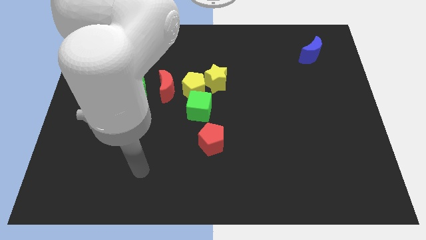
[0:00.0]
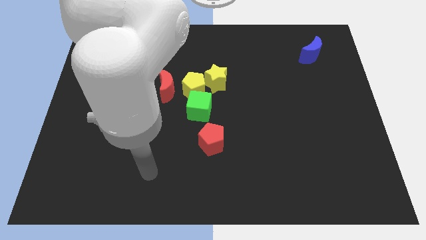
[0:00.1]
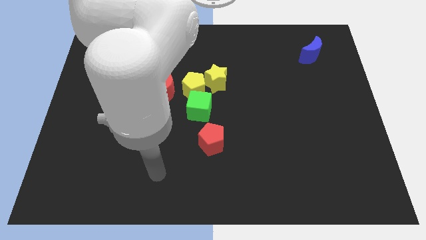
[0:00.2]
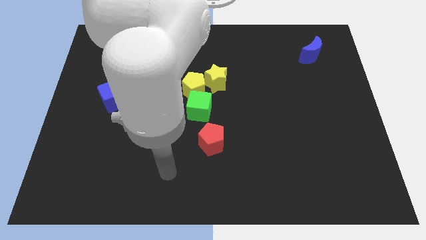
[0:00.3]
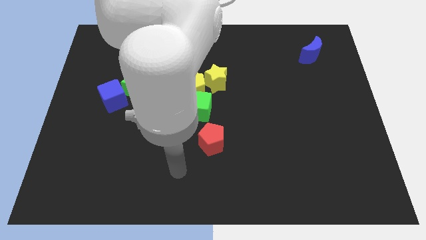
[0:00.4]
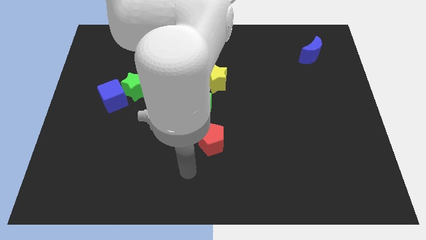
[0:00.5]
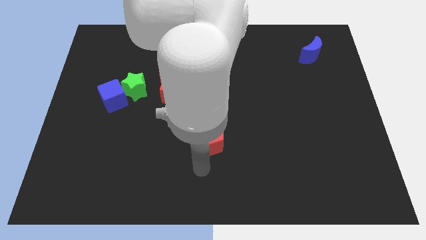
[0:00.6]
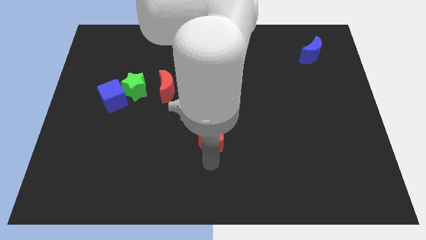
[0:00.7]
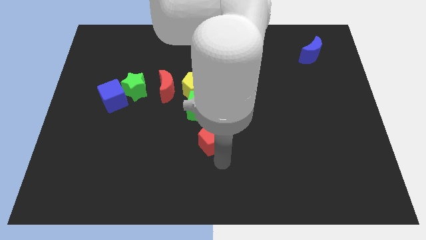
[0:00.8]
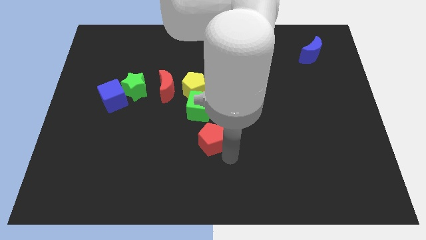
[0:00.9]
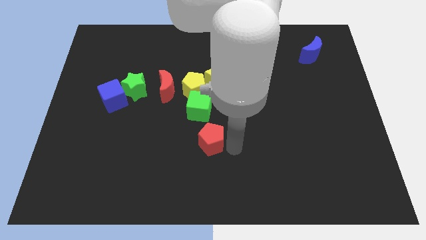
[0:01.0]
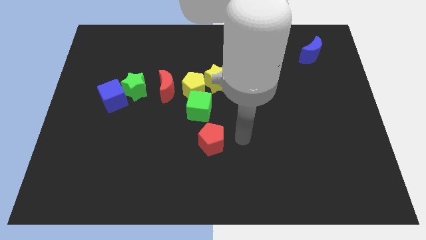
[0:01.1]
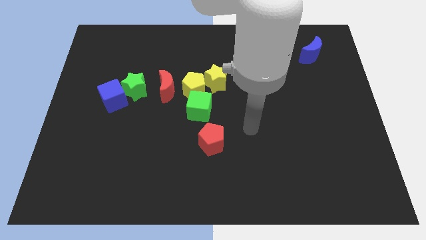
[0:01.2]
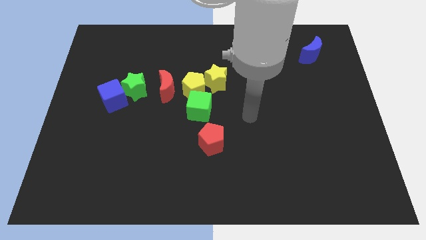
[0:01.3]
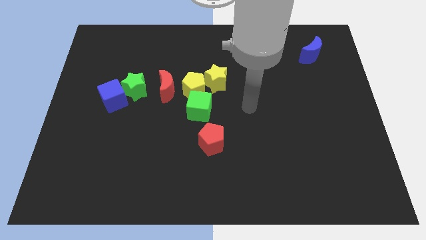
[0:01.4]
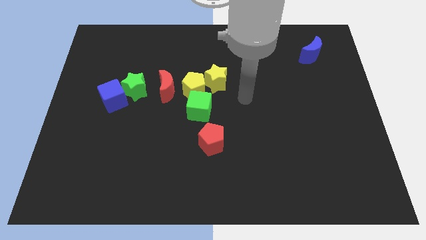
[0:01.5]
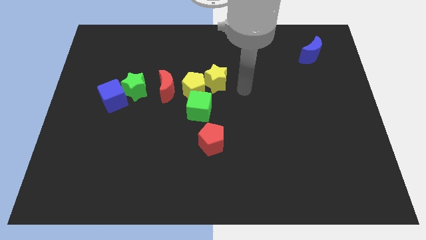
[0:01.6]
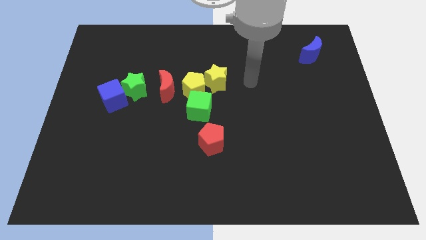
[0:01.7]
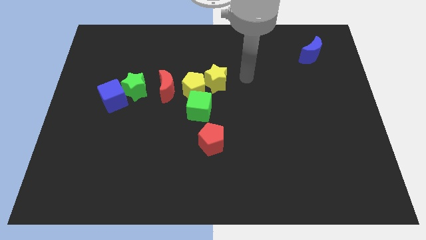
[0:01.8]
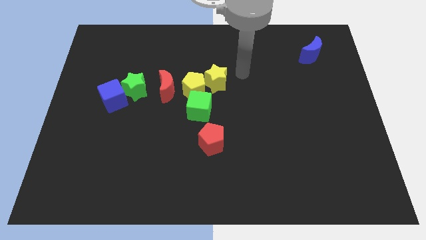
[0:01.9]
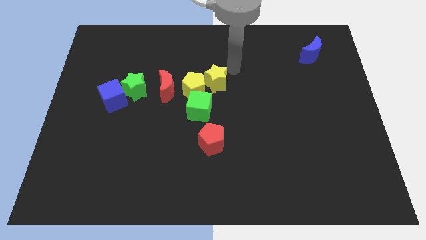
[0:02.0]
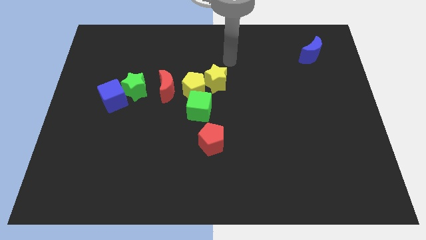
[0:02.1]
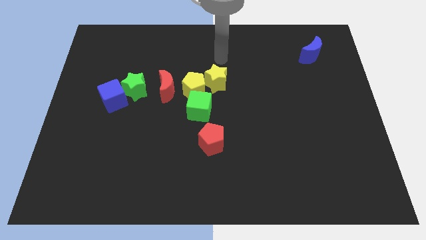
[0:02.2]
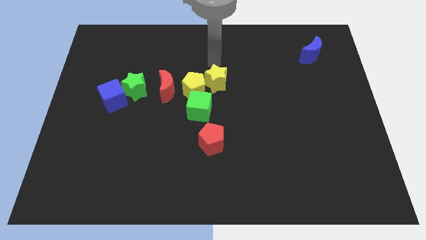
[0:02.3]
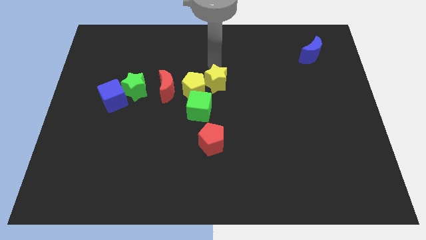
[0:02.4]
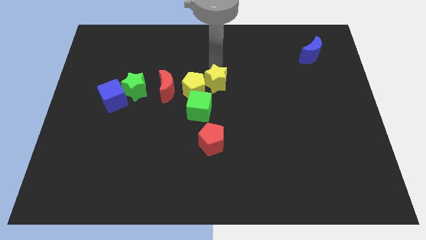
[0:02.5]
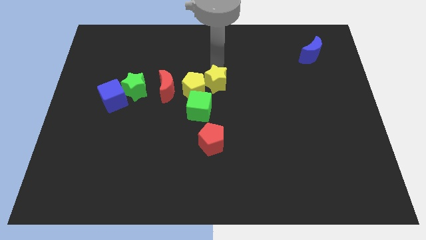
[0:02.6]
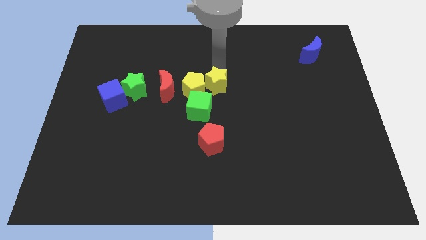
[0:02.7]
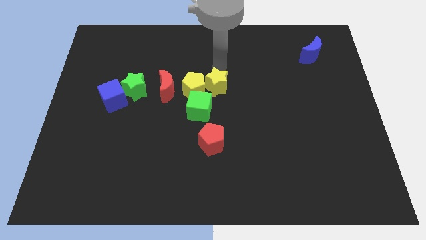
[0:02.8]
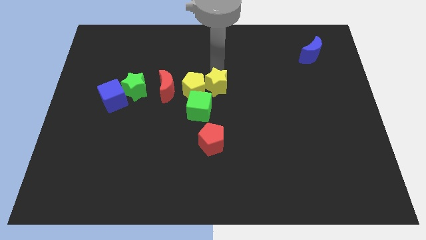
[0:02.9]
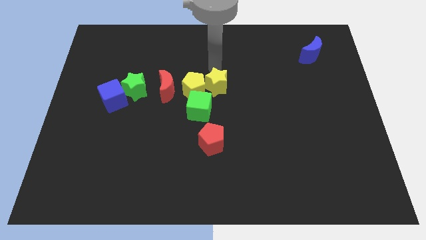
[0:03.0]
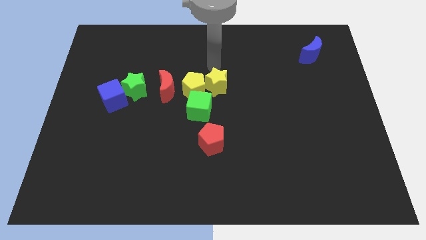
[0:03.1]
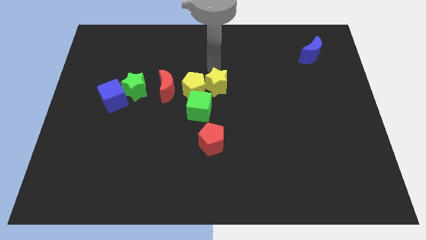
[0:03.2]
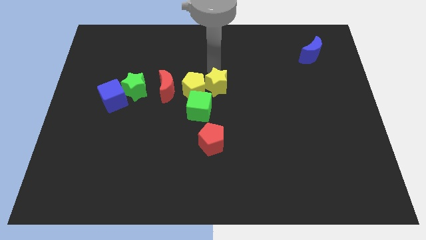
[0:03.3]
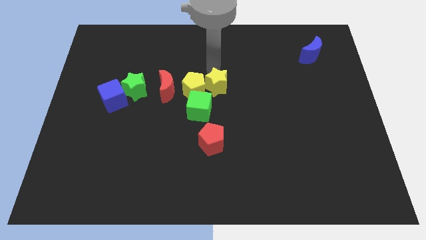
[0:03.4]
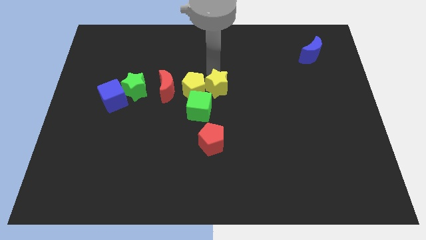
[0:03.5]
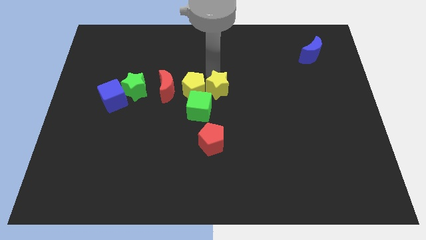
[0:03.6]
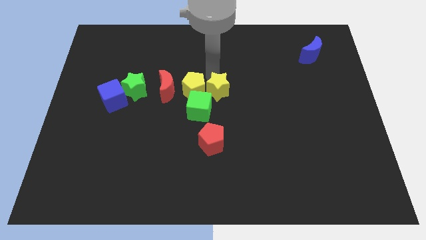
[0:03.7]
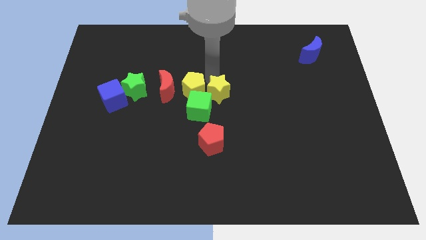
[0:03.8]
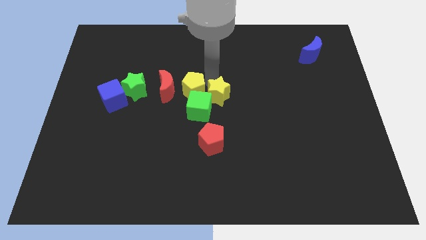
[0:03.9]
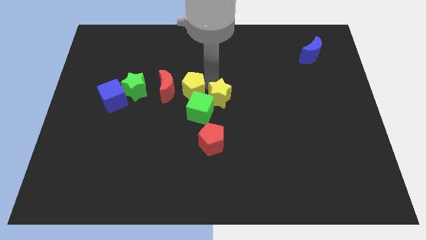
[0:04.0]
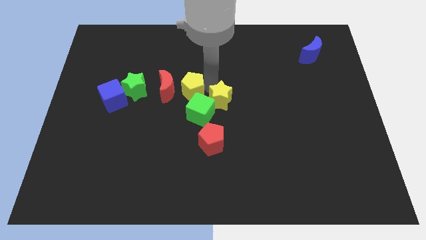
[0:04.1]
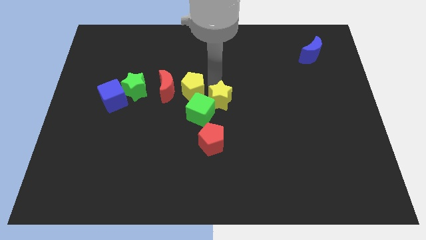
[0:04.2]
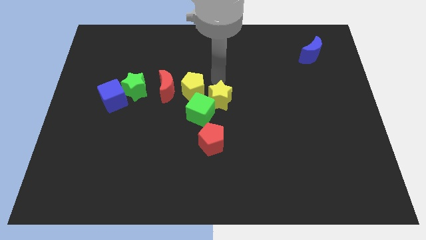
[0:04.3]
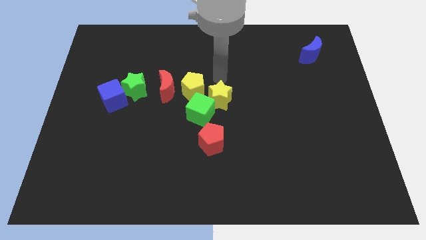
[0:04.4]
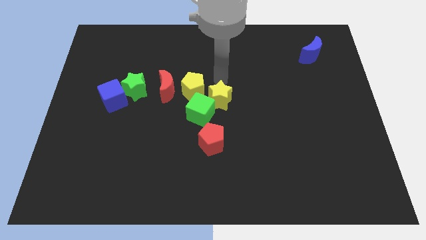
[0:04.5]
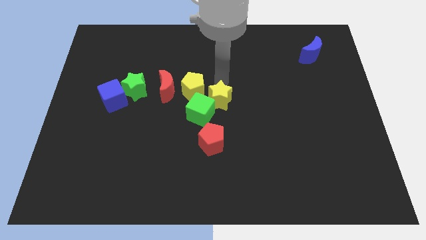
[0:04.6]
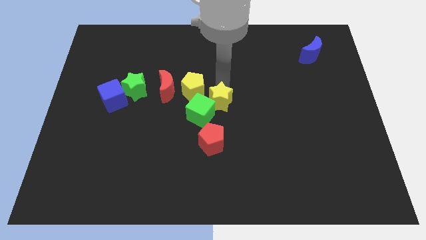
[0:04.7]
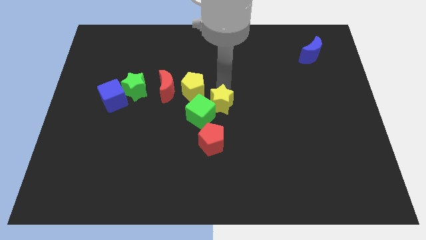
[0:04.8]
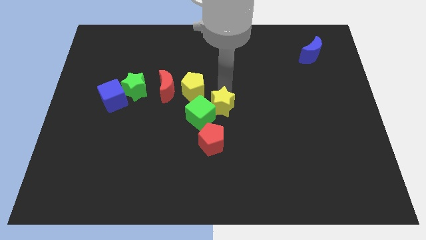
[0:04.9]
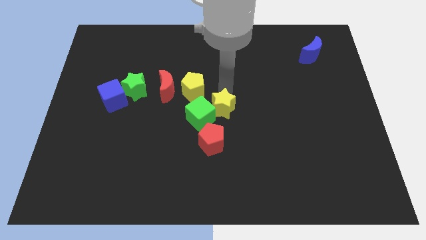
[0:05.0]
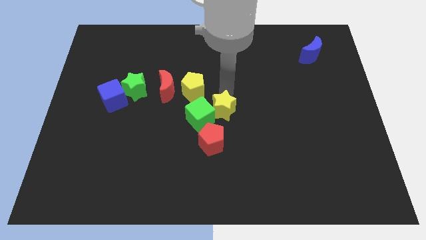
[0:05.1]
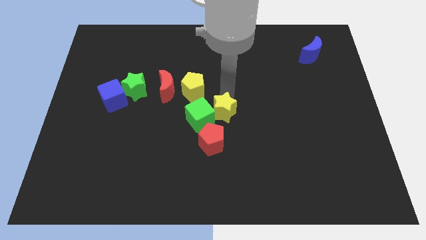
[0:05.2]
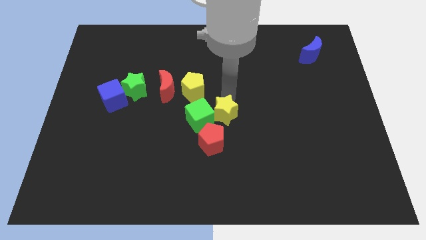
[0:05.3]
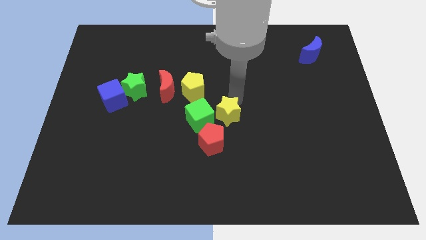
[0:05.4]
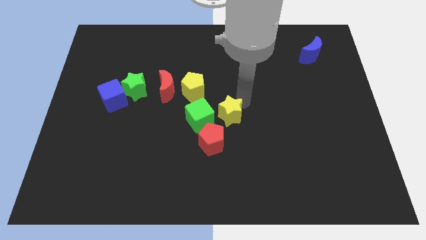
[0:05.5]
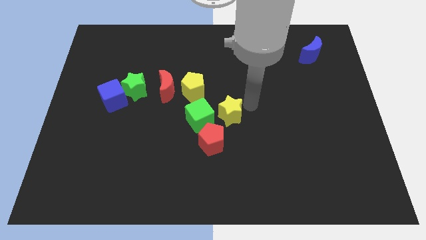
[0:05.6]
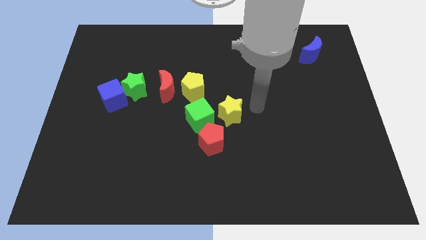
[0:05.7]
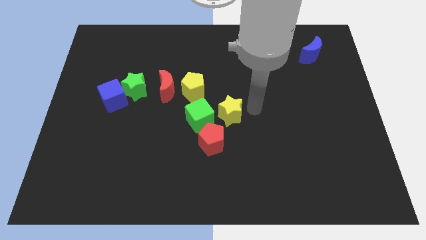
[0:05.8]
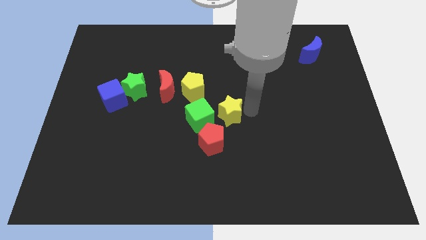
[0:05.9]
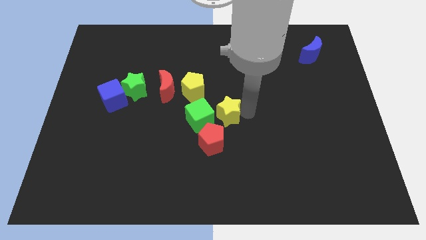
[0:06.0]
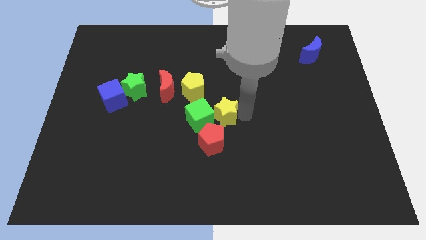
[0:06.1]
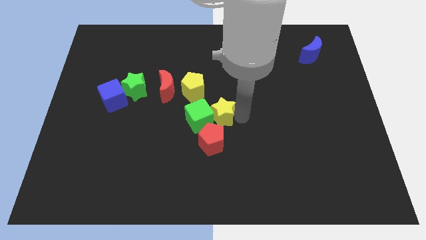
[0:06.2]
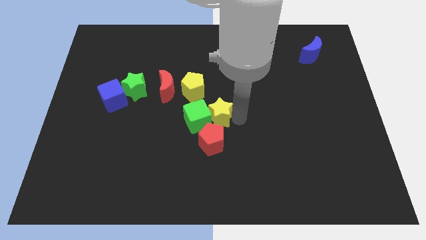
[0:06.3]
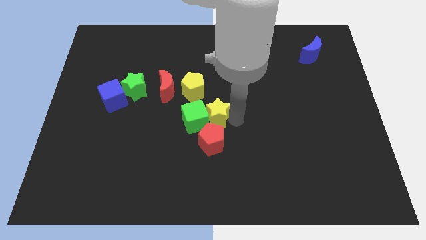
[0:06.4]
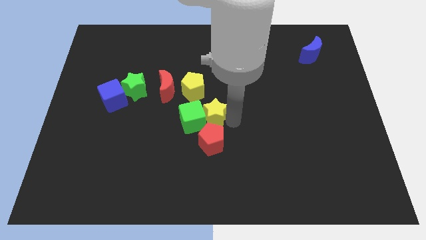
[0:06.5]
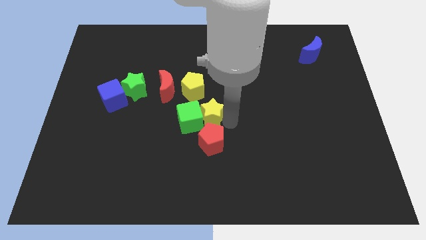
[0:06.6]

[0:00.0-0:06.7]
put the yellow star to the bottom side of the yellow pentagon
